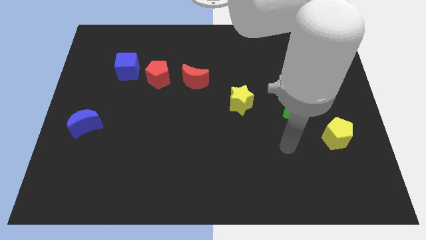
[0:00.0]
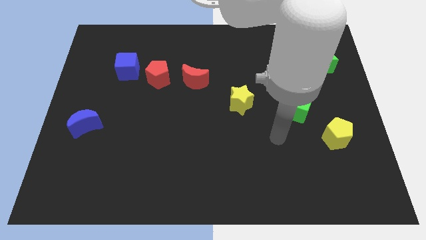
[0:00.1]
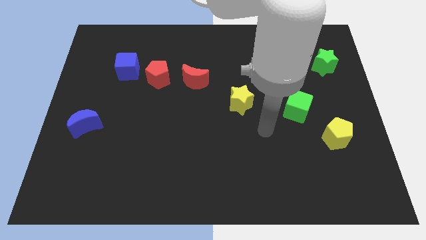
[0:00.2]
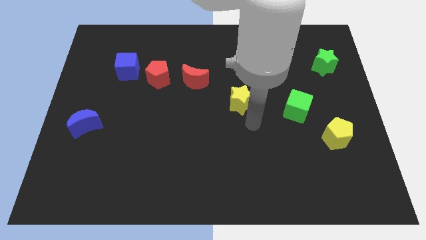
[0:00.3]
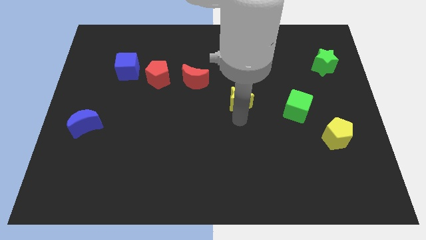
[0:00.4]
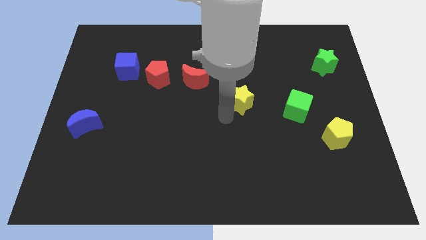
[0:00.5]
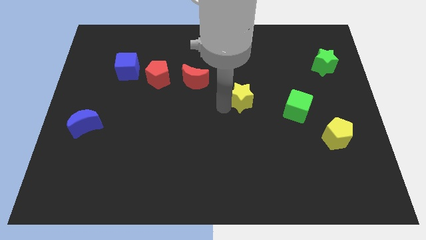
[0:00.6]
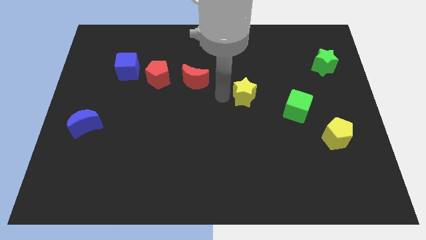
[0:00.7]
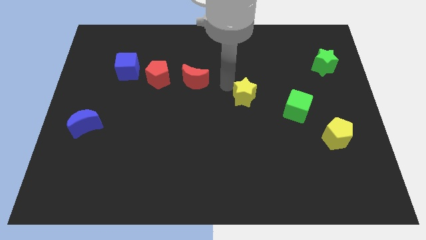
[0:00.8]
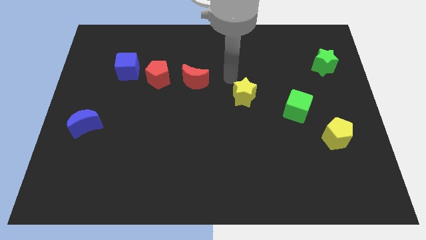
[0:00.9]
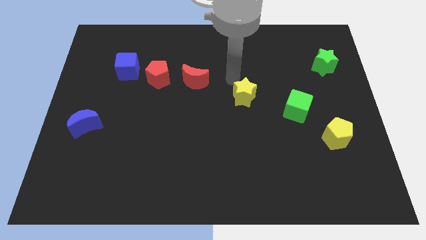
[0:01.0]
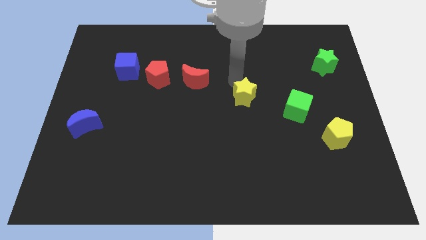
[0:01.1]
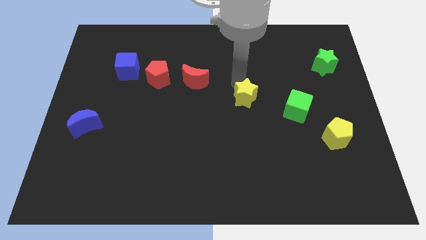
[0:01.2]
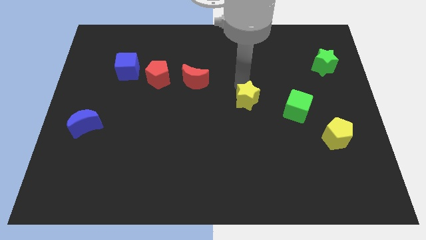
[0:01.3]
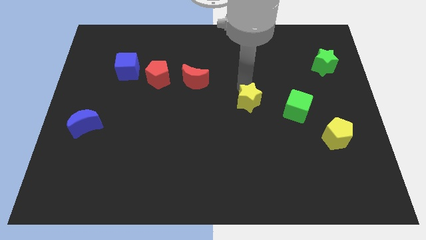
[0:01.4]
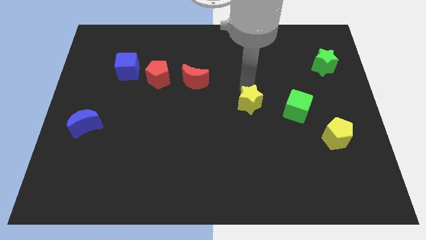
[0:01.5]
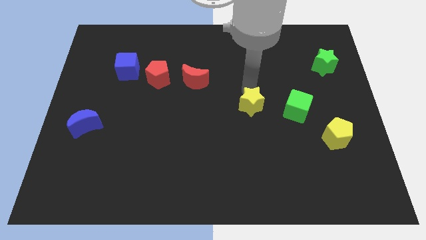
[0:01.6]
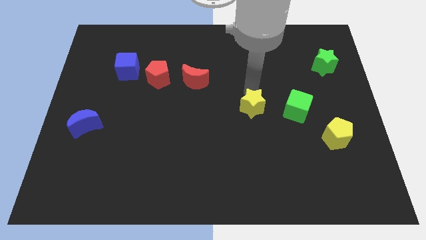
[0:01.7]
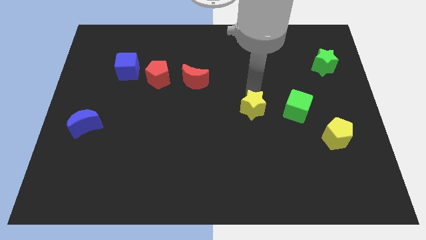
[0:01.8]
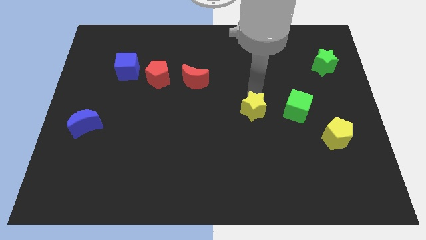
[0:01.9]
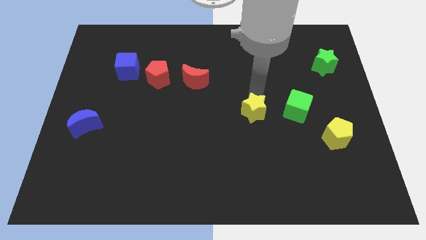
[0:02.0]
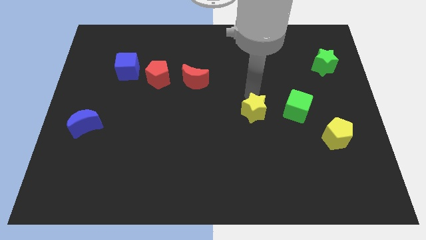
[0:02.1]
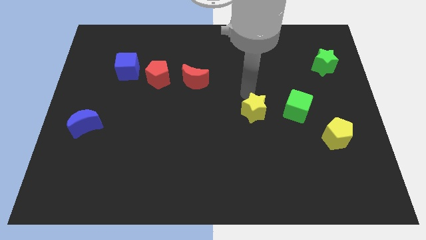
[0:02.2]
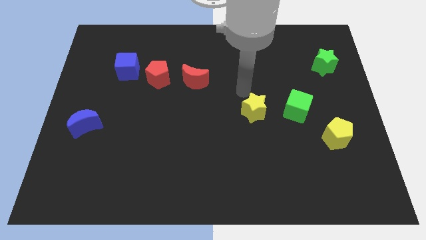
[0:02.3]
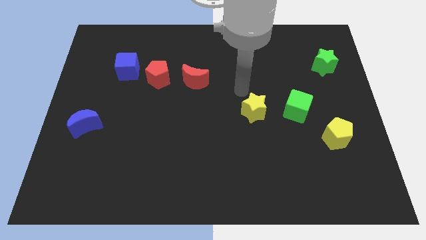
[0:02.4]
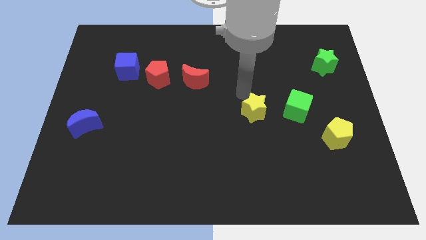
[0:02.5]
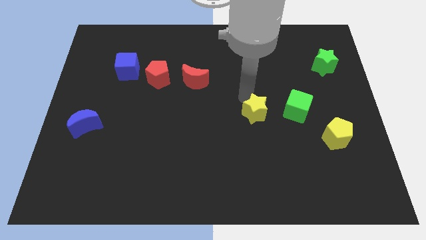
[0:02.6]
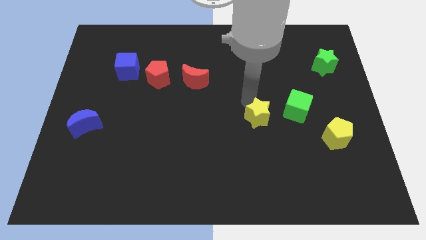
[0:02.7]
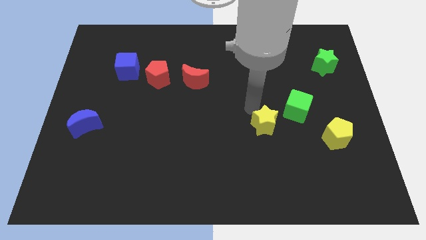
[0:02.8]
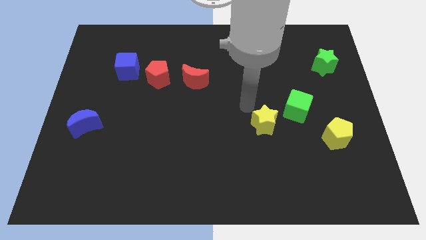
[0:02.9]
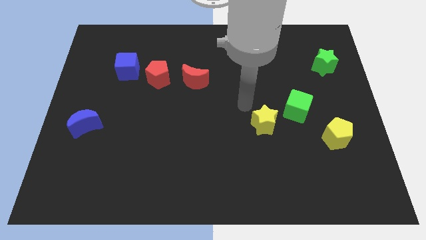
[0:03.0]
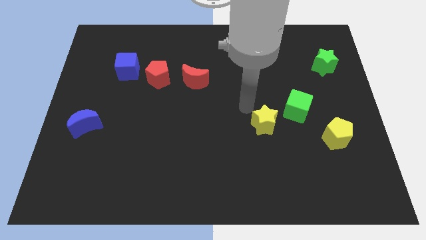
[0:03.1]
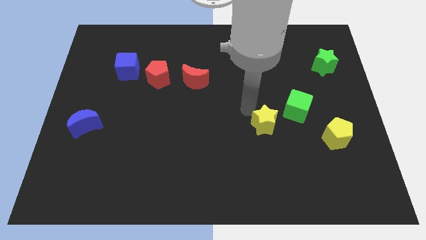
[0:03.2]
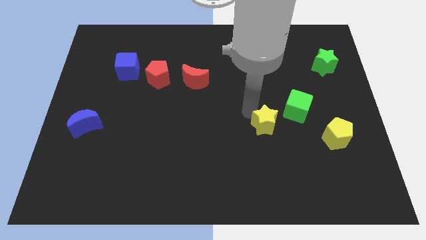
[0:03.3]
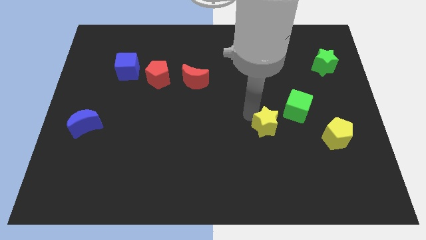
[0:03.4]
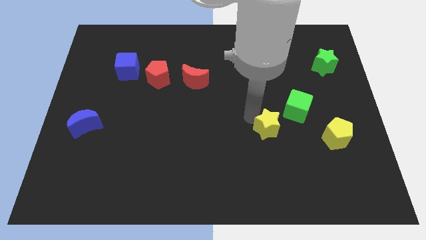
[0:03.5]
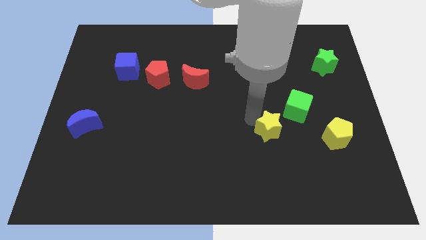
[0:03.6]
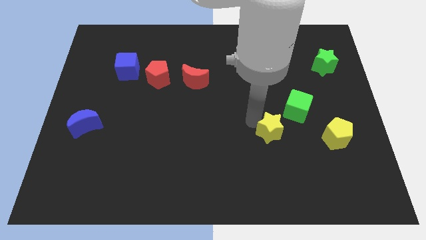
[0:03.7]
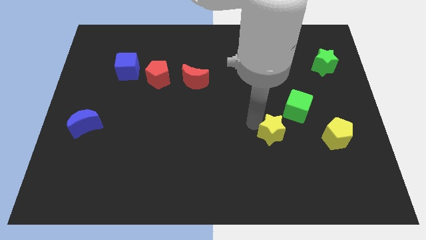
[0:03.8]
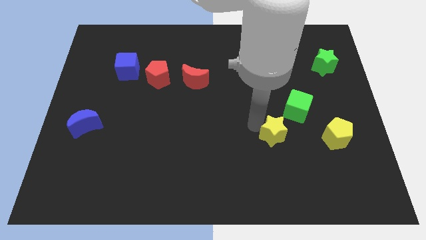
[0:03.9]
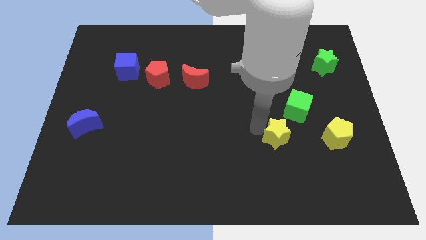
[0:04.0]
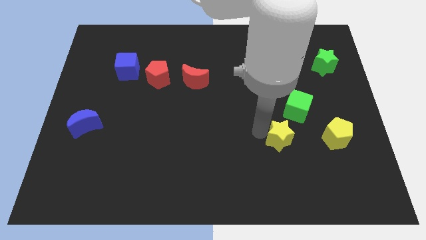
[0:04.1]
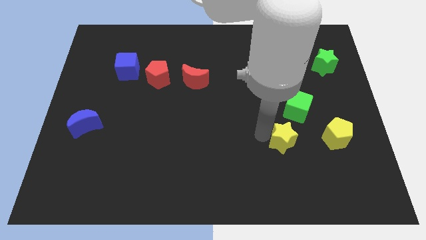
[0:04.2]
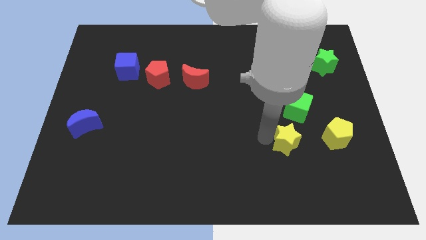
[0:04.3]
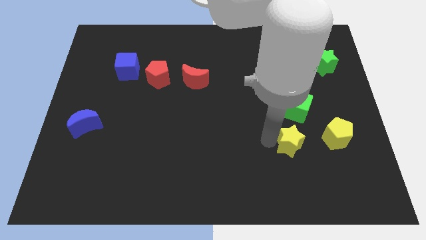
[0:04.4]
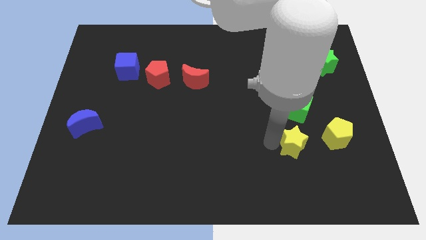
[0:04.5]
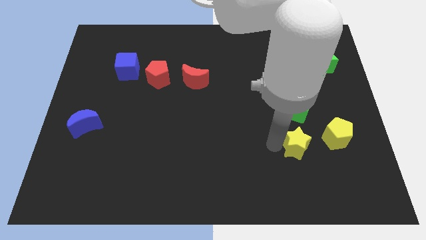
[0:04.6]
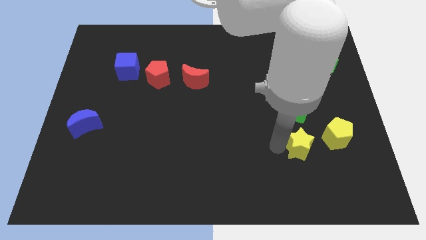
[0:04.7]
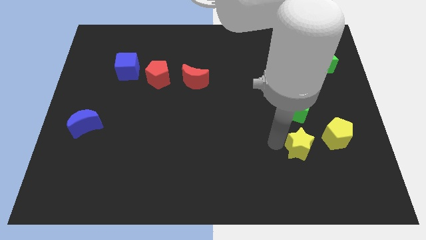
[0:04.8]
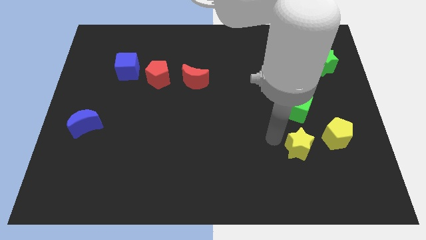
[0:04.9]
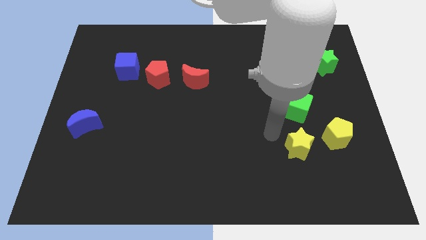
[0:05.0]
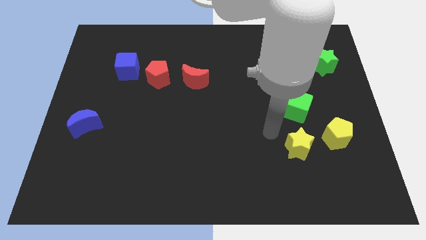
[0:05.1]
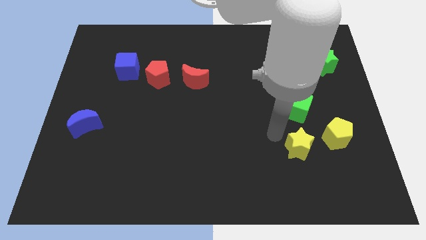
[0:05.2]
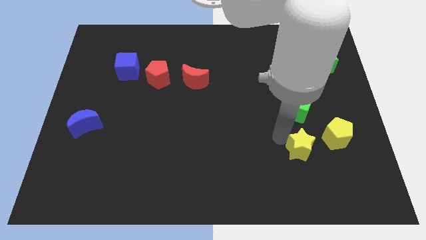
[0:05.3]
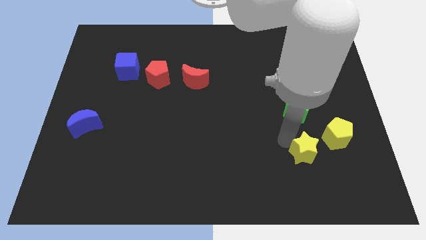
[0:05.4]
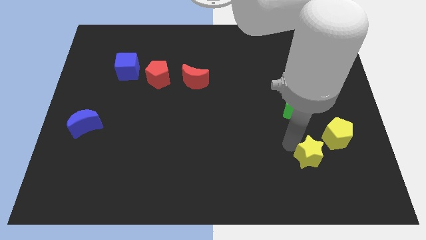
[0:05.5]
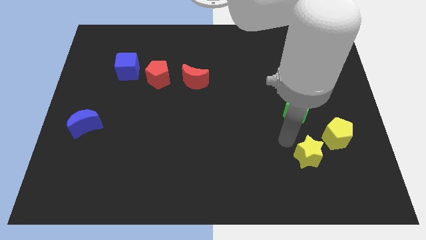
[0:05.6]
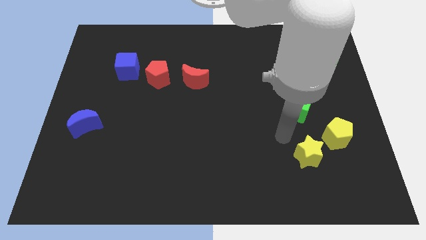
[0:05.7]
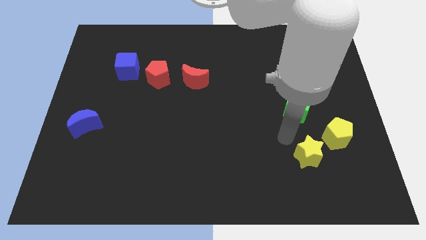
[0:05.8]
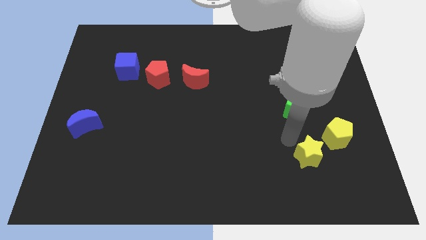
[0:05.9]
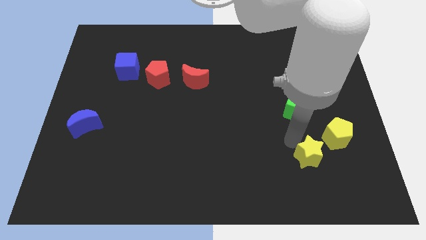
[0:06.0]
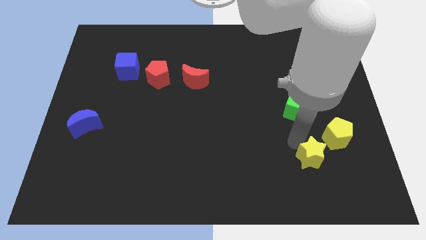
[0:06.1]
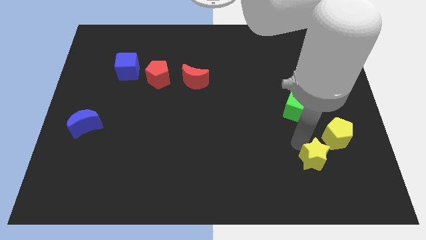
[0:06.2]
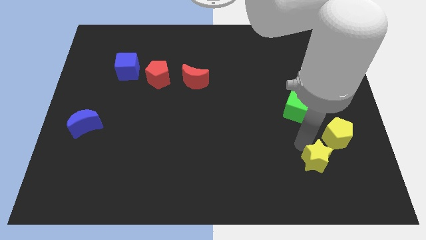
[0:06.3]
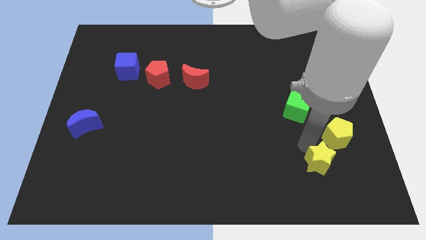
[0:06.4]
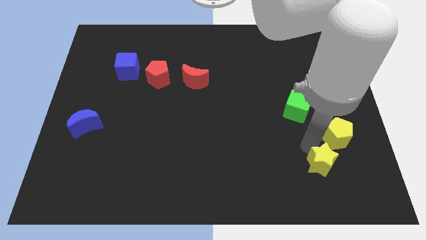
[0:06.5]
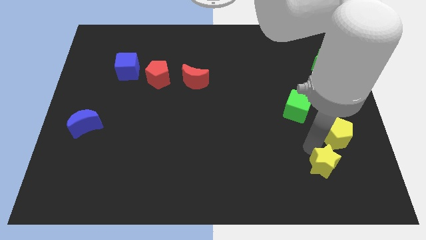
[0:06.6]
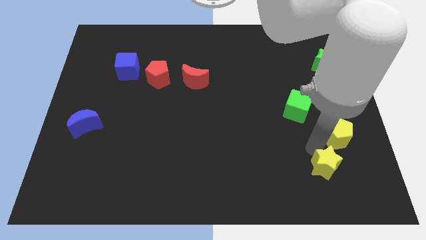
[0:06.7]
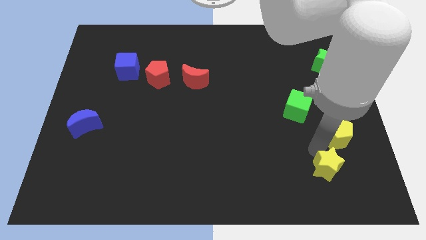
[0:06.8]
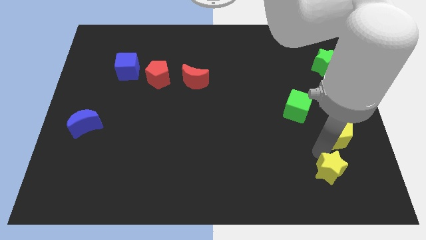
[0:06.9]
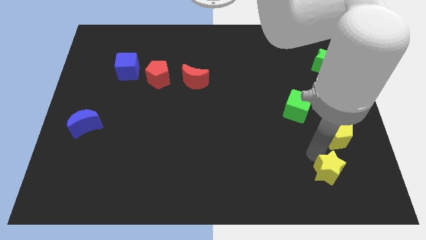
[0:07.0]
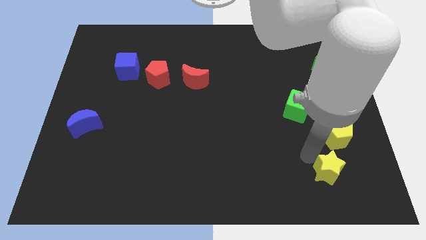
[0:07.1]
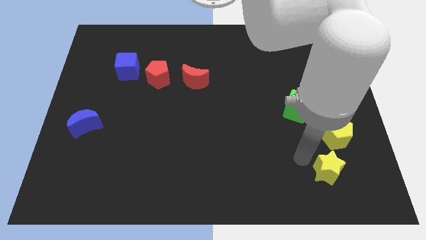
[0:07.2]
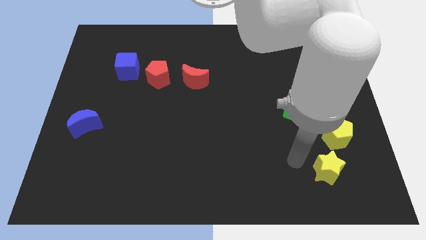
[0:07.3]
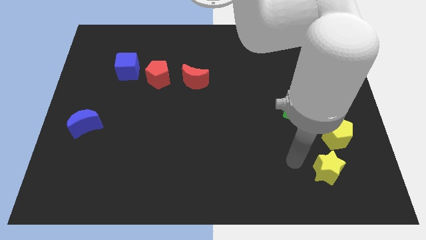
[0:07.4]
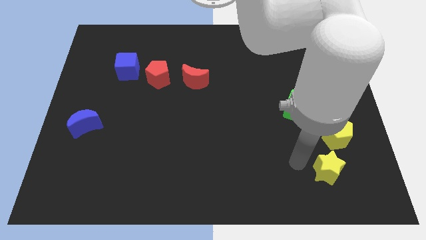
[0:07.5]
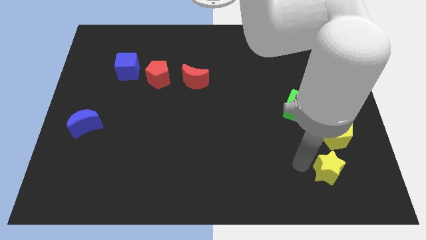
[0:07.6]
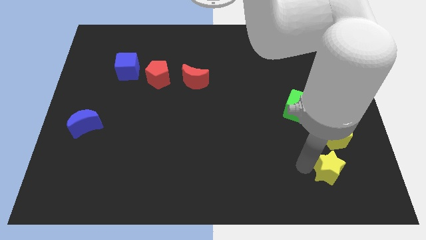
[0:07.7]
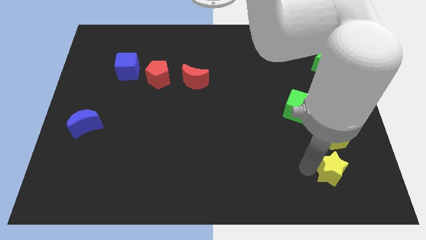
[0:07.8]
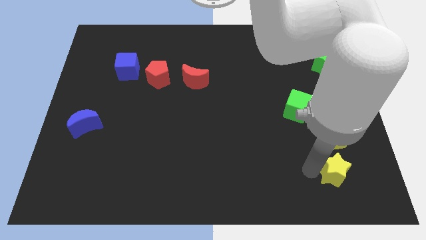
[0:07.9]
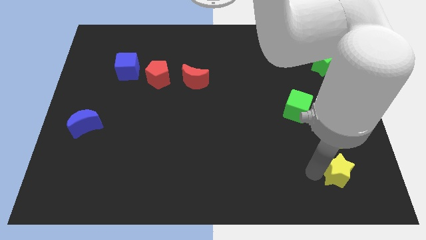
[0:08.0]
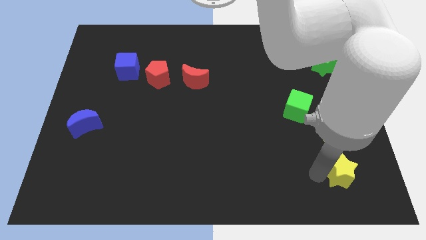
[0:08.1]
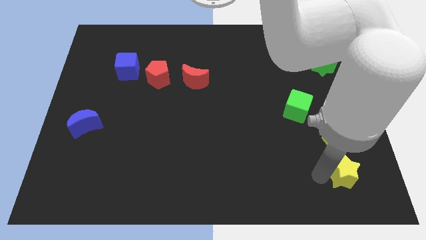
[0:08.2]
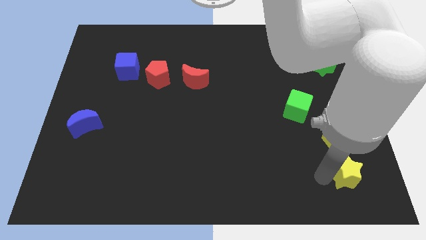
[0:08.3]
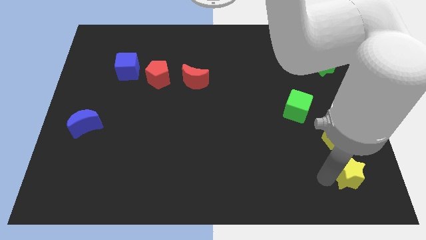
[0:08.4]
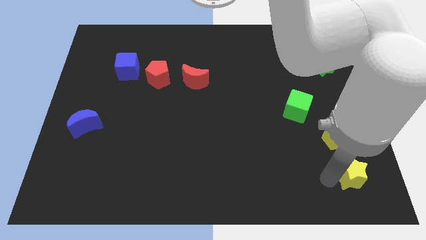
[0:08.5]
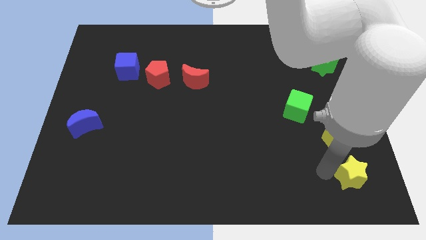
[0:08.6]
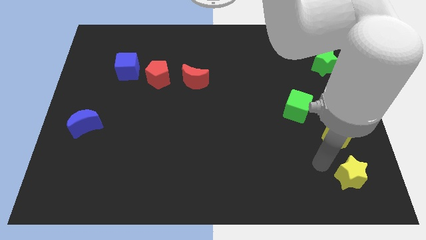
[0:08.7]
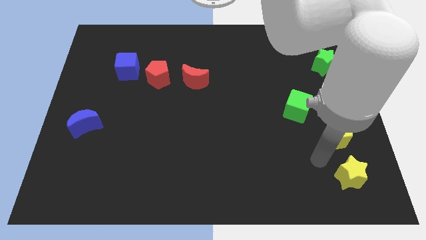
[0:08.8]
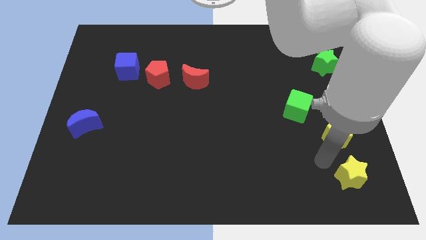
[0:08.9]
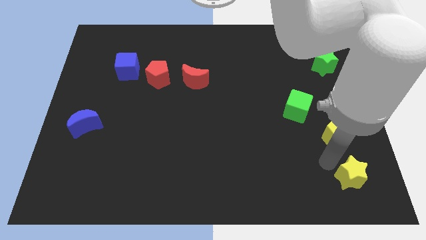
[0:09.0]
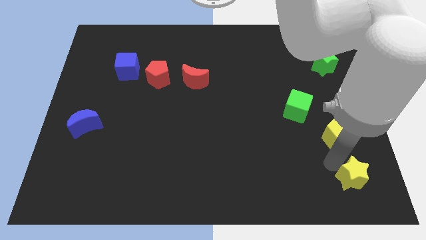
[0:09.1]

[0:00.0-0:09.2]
move the yellow star to the lower right corner
